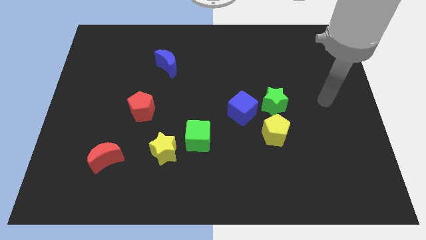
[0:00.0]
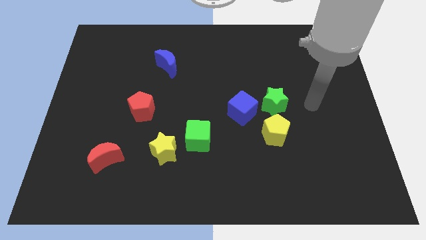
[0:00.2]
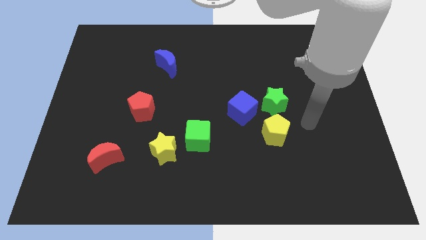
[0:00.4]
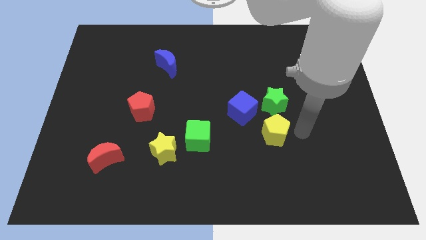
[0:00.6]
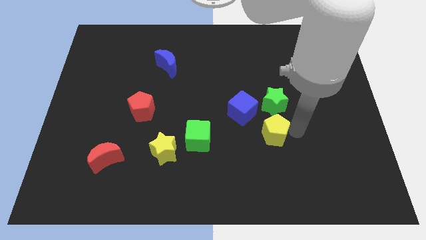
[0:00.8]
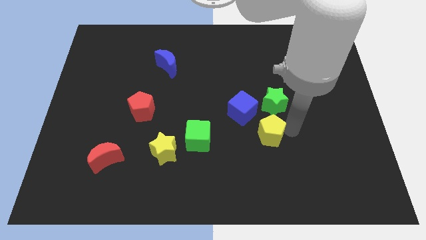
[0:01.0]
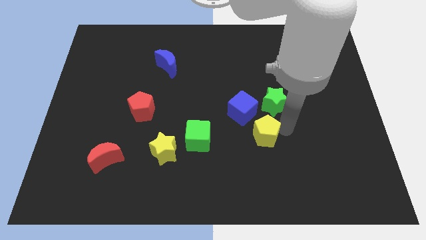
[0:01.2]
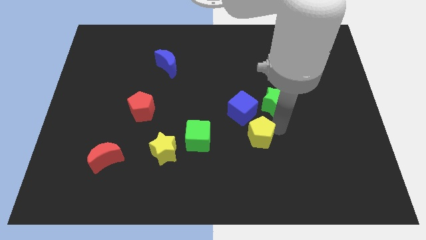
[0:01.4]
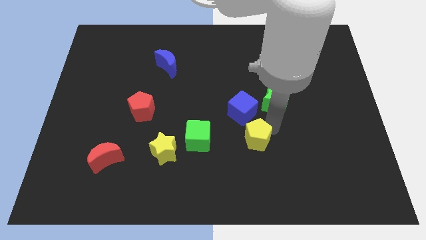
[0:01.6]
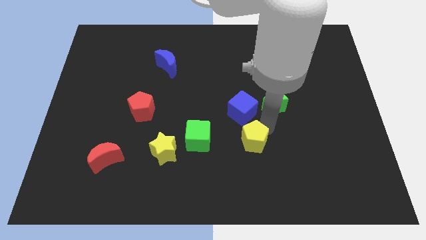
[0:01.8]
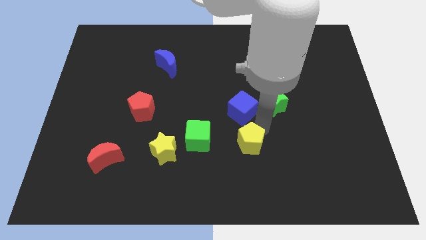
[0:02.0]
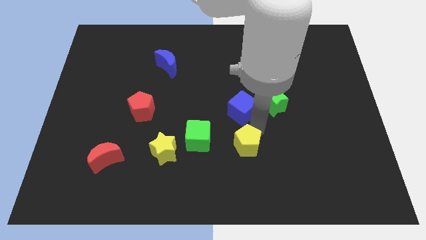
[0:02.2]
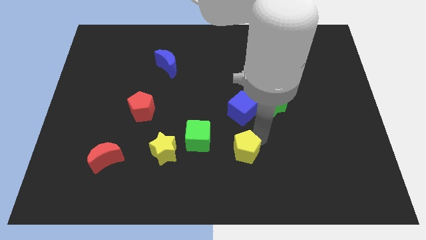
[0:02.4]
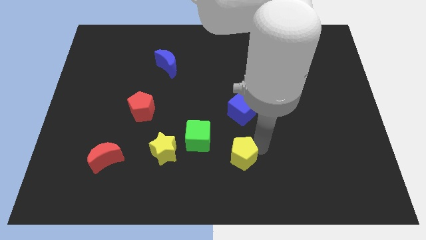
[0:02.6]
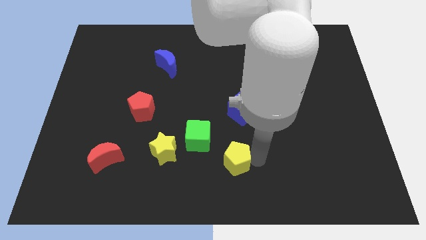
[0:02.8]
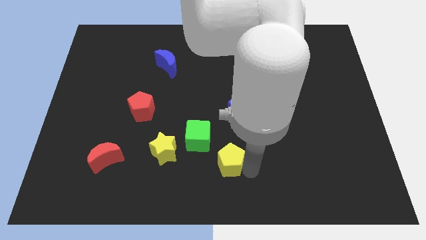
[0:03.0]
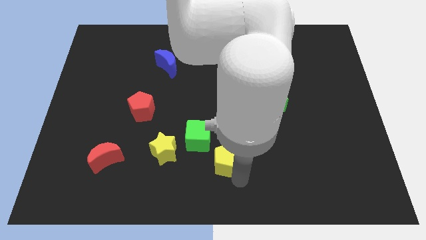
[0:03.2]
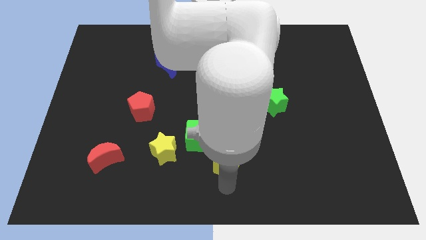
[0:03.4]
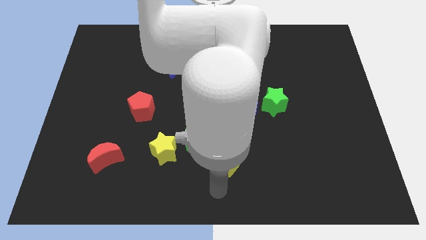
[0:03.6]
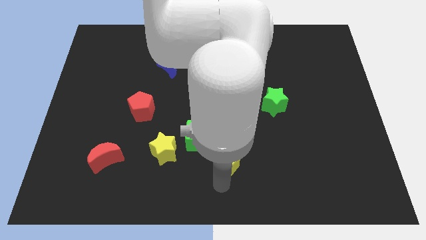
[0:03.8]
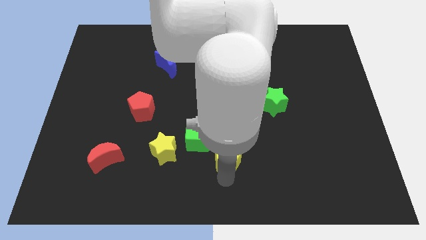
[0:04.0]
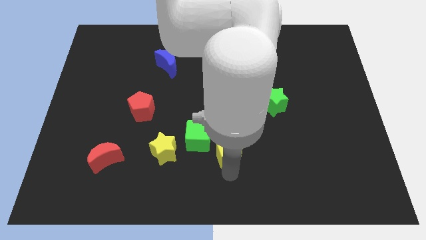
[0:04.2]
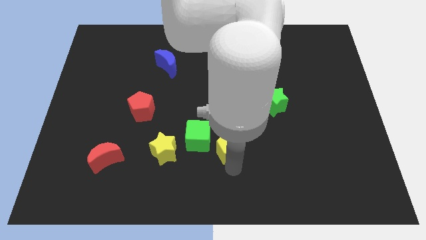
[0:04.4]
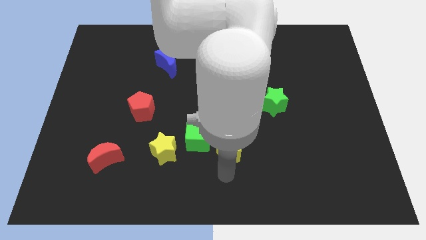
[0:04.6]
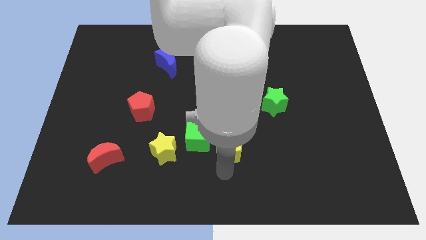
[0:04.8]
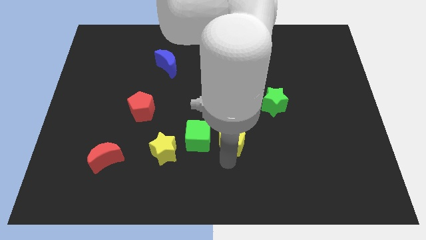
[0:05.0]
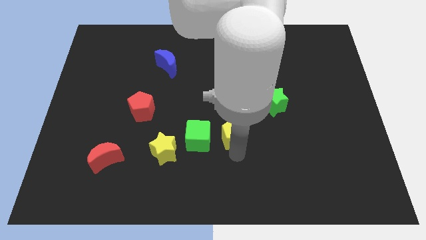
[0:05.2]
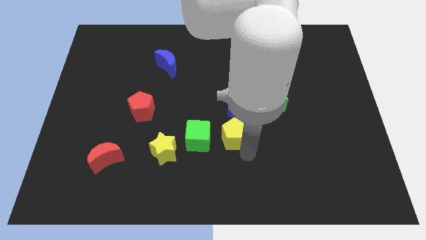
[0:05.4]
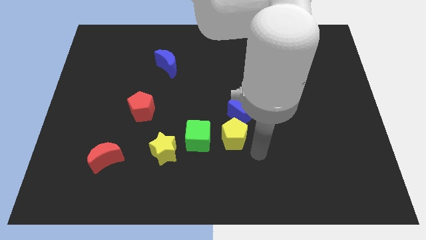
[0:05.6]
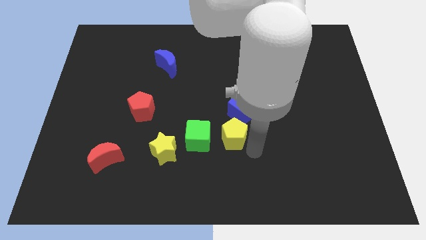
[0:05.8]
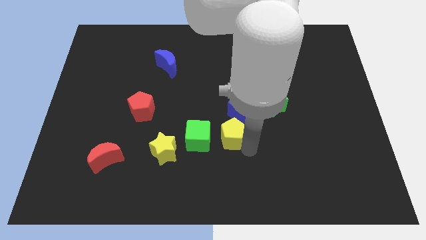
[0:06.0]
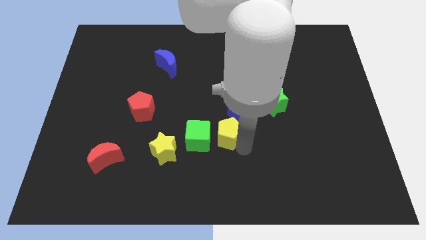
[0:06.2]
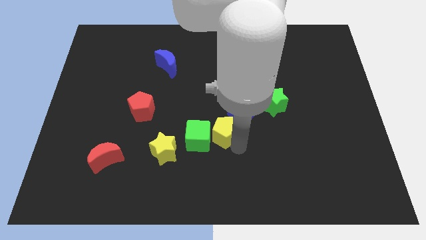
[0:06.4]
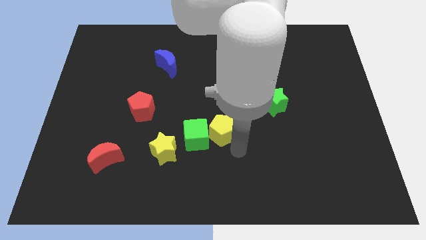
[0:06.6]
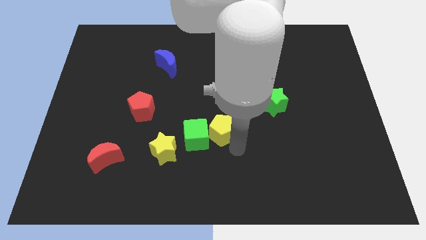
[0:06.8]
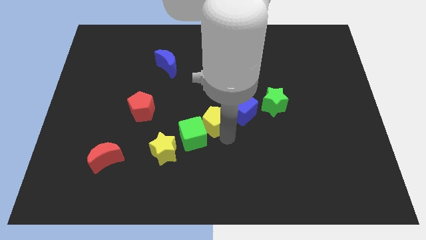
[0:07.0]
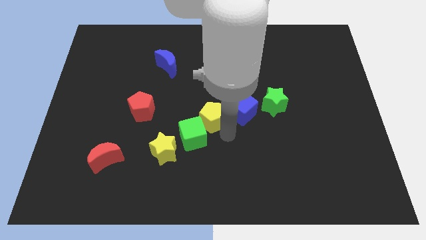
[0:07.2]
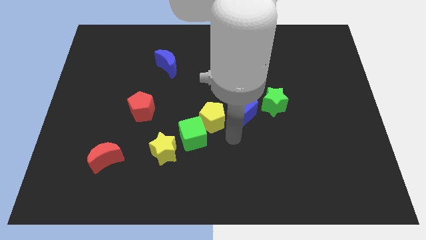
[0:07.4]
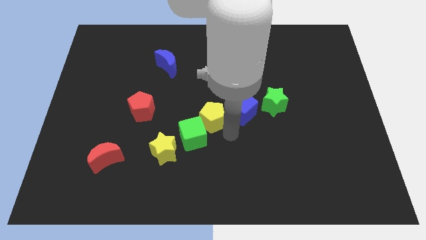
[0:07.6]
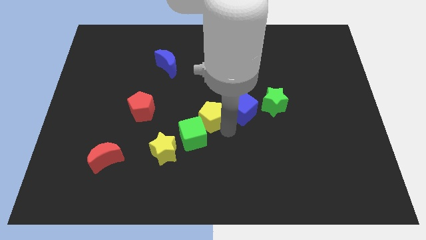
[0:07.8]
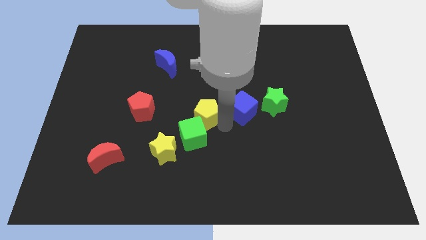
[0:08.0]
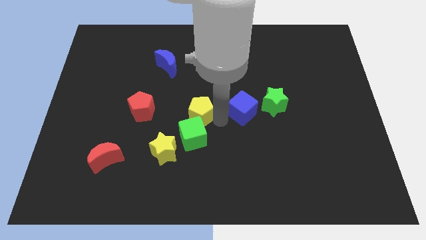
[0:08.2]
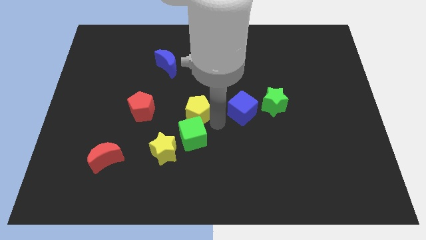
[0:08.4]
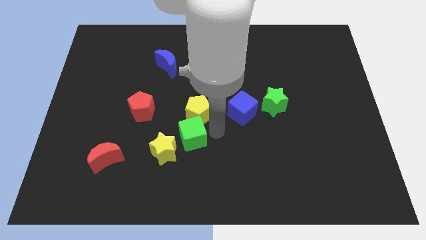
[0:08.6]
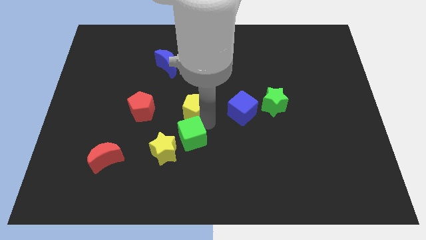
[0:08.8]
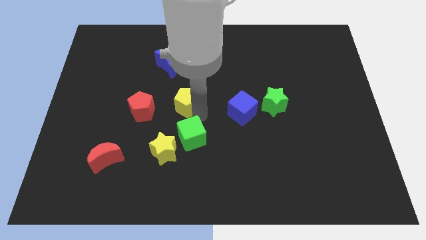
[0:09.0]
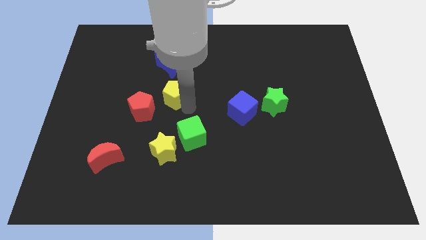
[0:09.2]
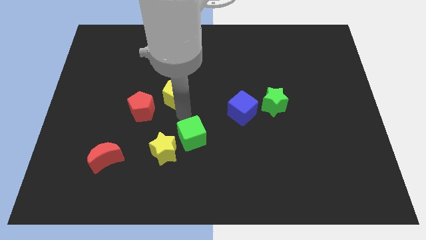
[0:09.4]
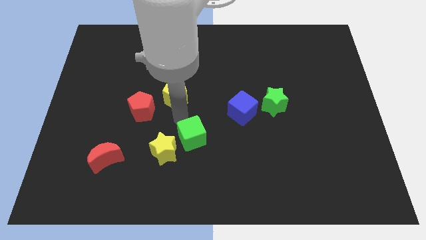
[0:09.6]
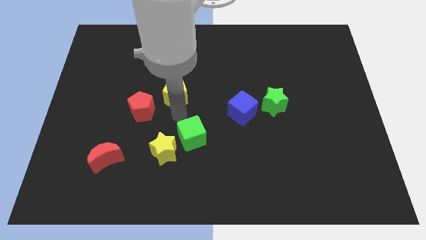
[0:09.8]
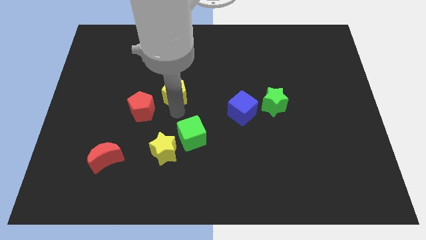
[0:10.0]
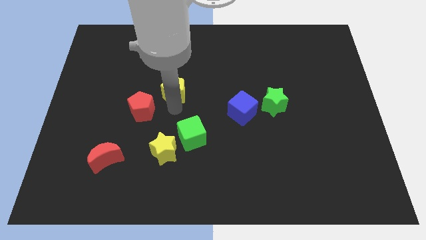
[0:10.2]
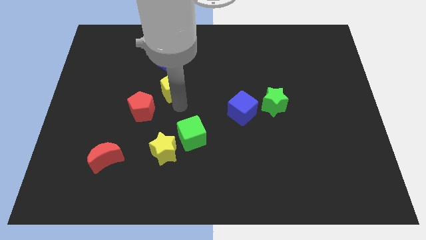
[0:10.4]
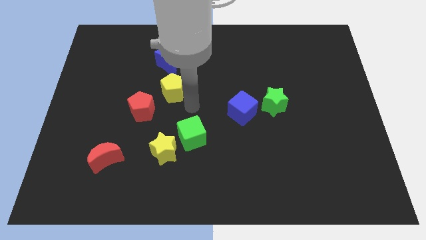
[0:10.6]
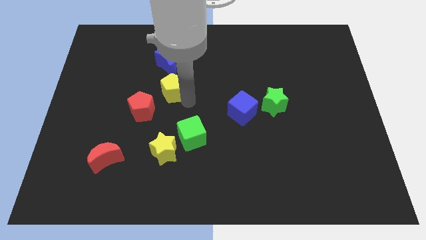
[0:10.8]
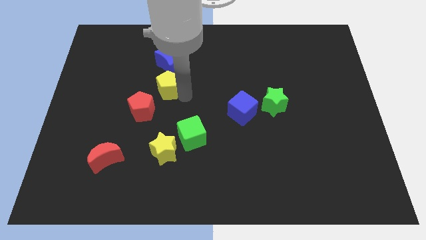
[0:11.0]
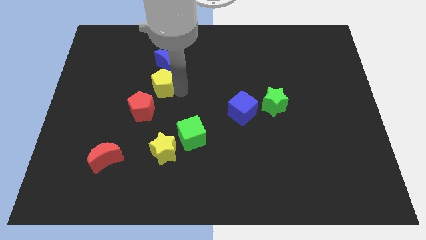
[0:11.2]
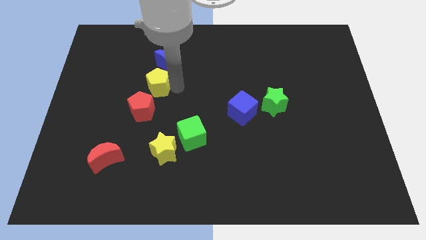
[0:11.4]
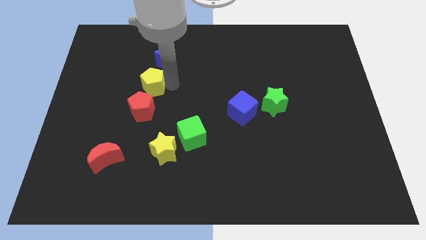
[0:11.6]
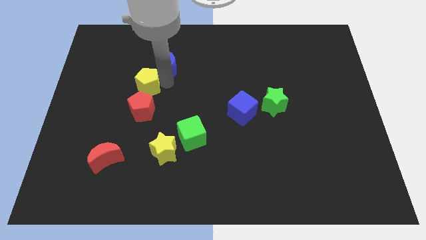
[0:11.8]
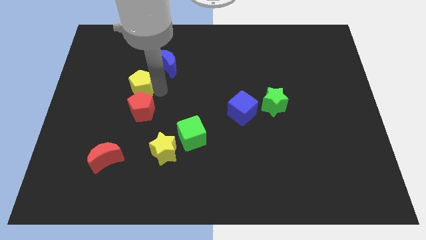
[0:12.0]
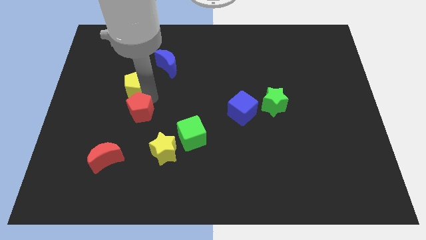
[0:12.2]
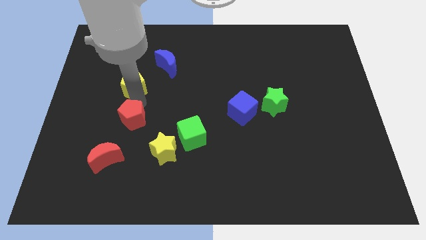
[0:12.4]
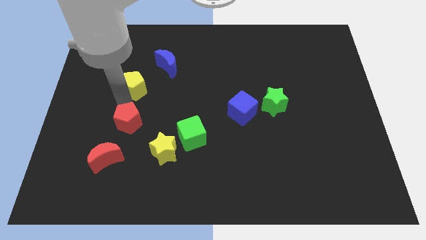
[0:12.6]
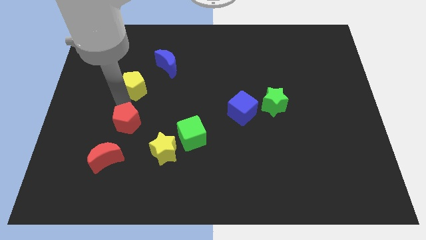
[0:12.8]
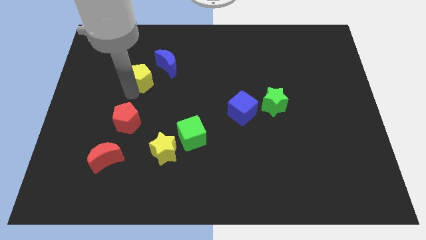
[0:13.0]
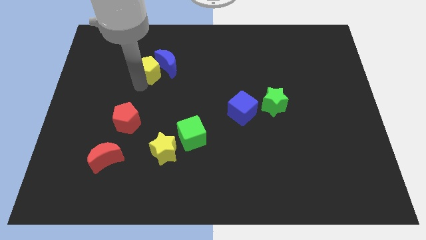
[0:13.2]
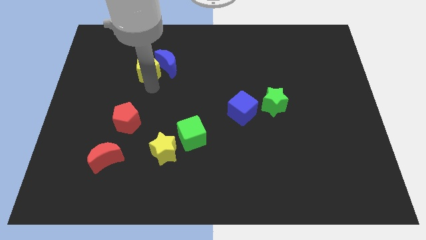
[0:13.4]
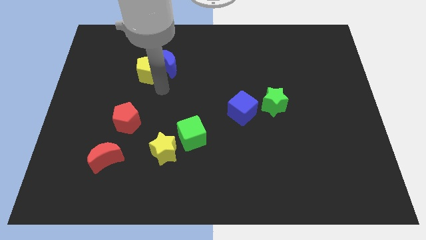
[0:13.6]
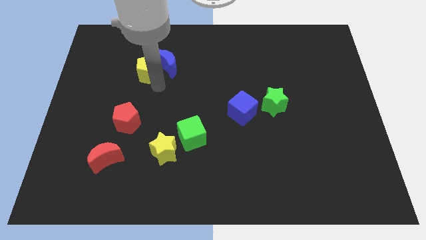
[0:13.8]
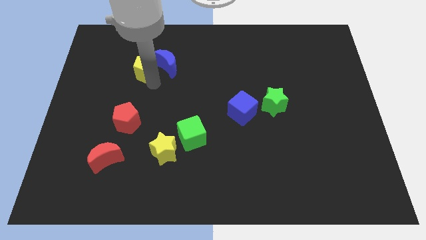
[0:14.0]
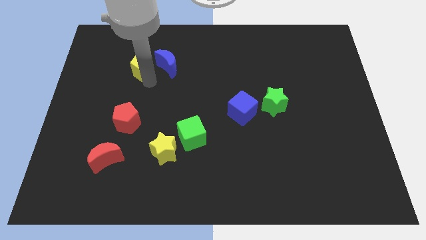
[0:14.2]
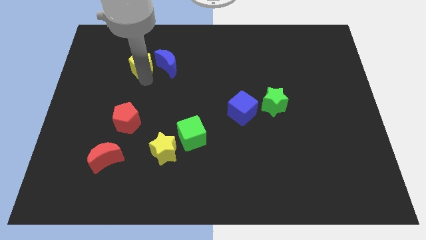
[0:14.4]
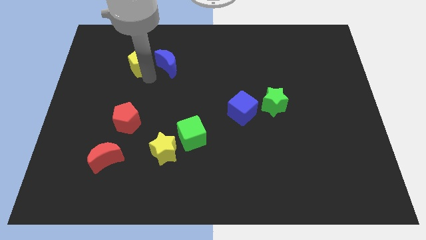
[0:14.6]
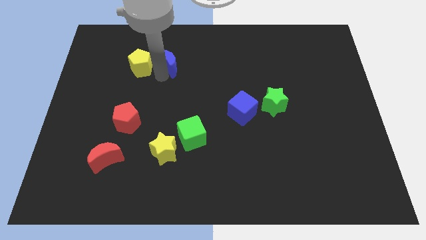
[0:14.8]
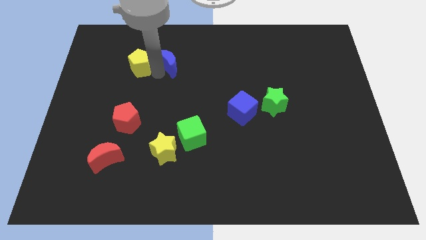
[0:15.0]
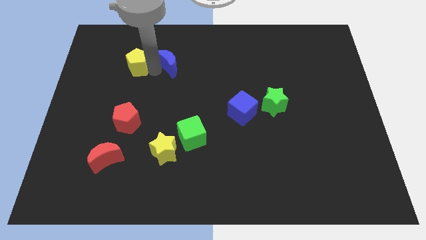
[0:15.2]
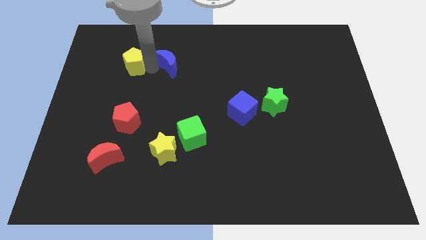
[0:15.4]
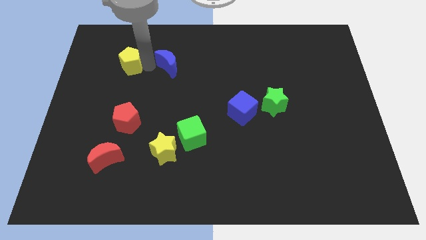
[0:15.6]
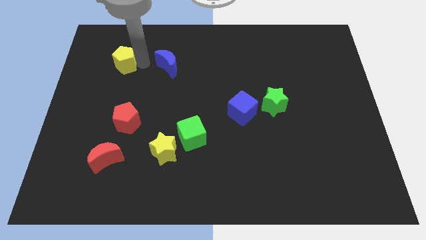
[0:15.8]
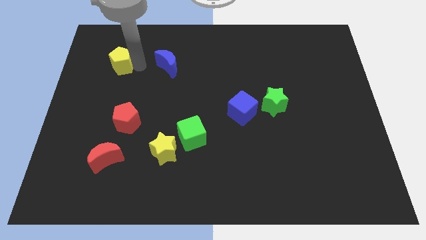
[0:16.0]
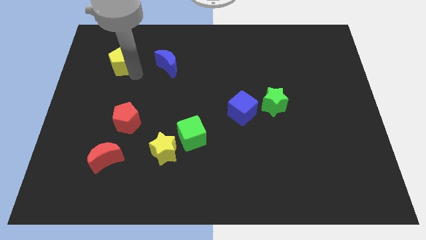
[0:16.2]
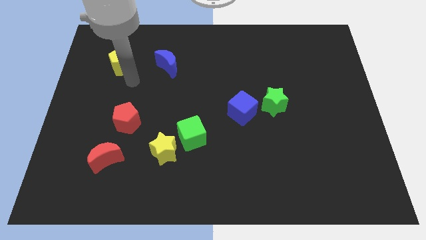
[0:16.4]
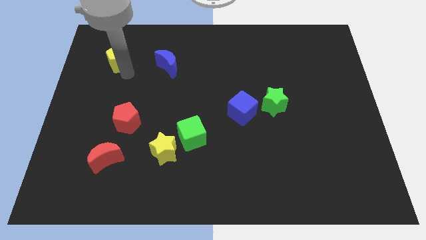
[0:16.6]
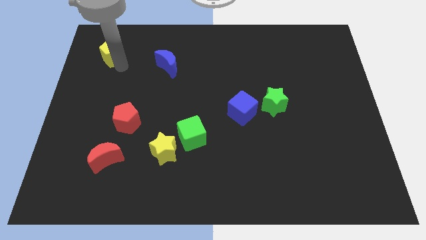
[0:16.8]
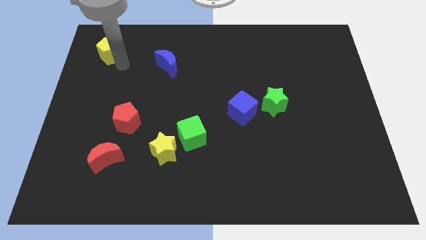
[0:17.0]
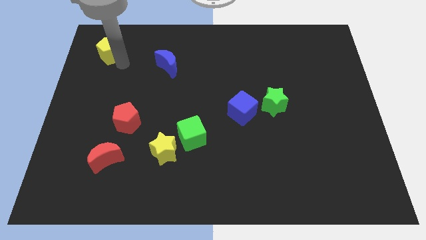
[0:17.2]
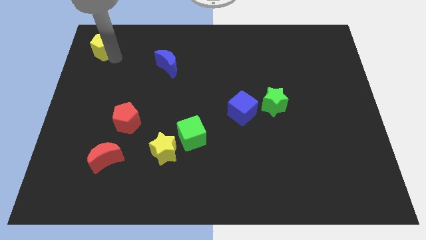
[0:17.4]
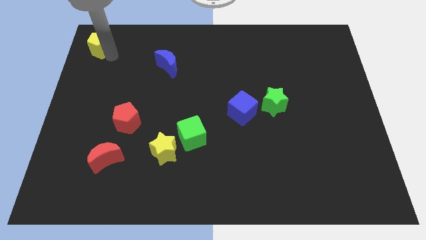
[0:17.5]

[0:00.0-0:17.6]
put the yellow pentagon to the top left corner
